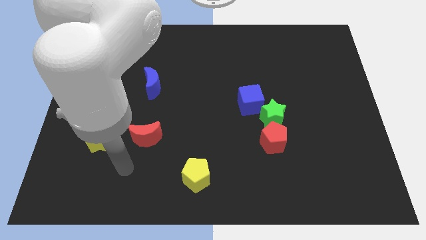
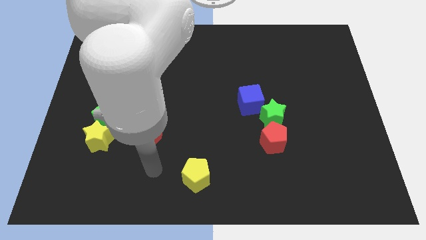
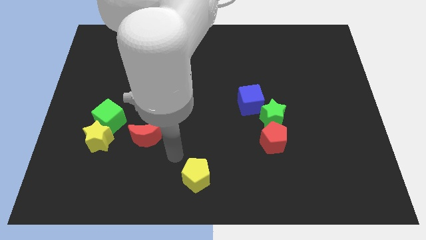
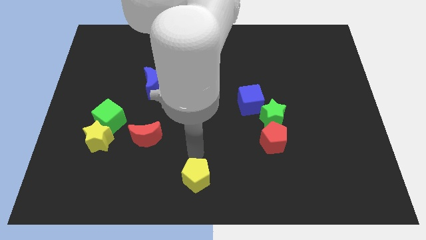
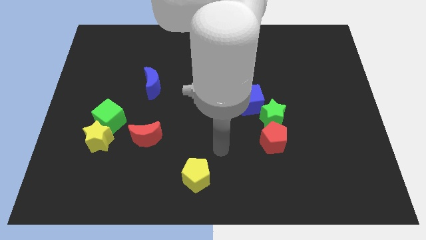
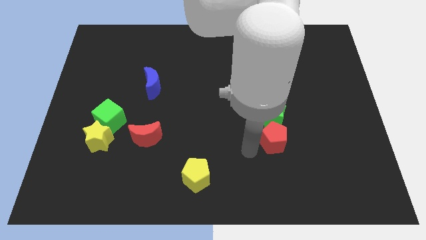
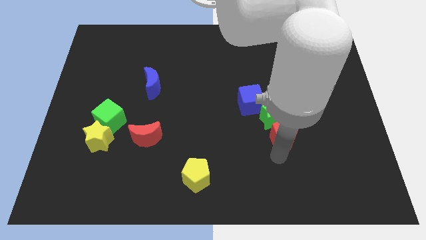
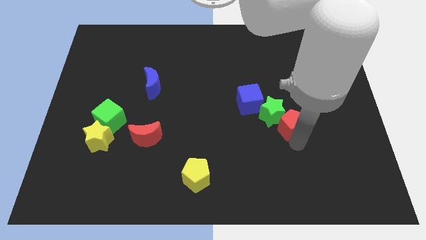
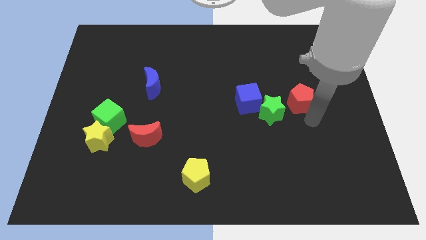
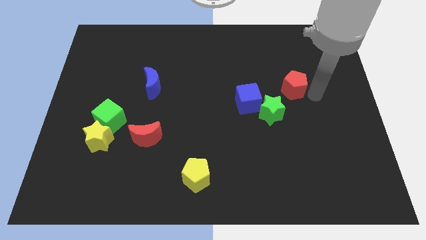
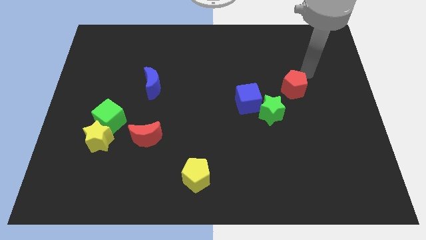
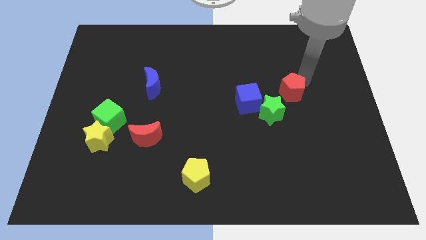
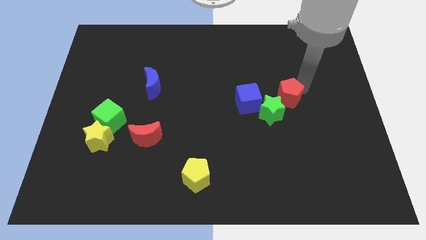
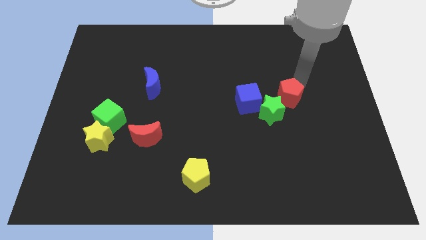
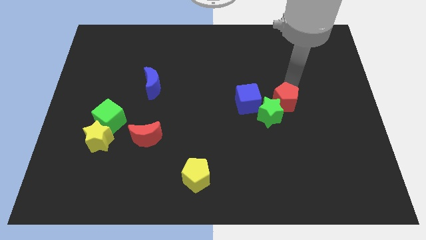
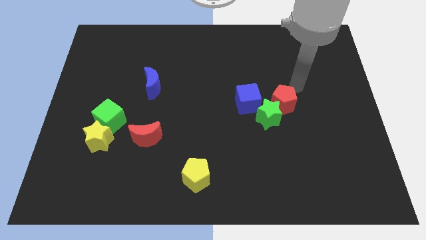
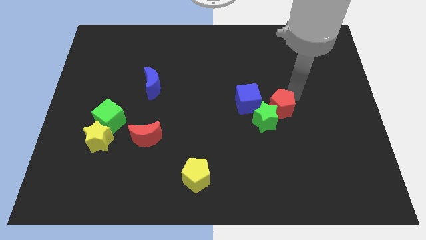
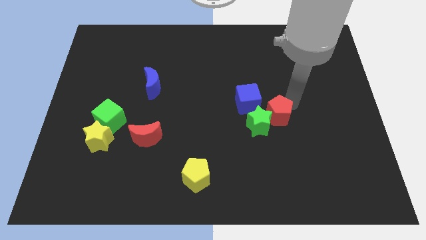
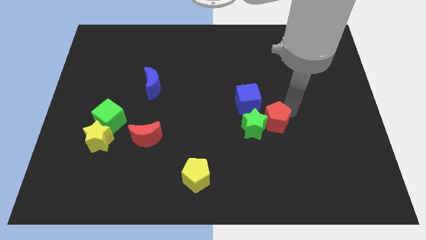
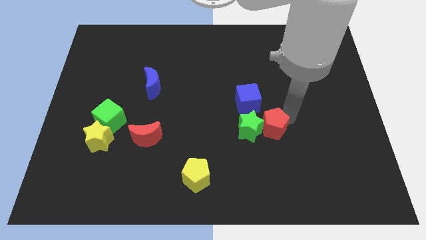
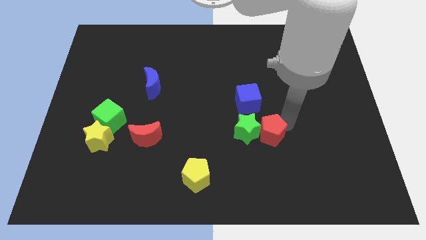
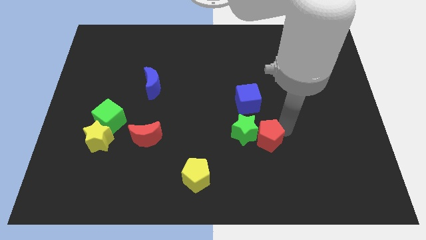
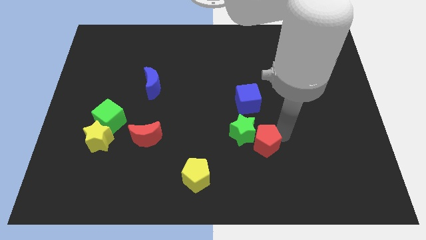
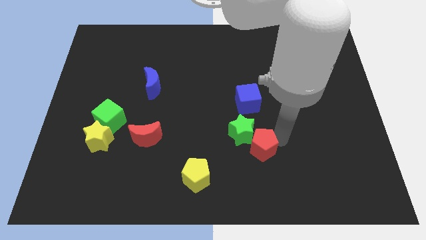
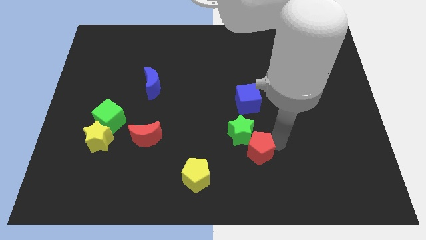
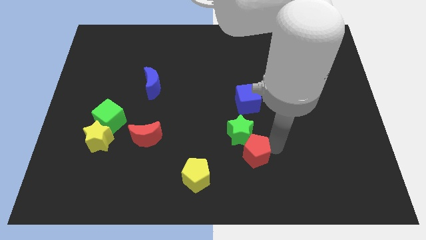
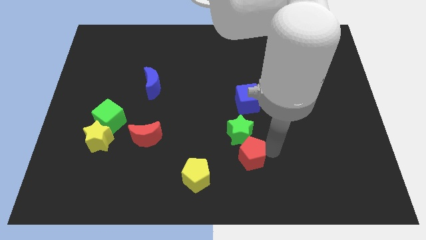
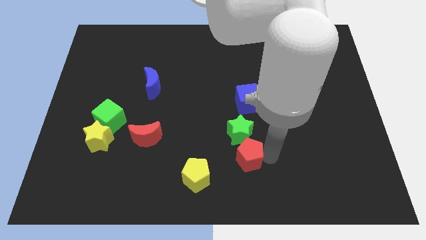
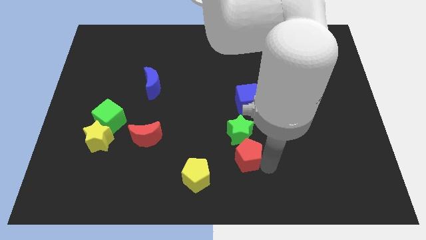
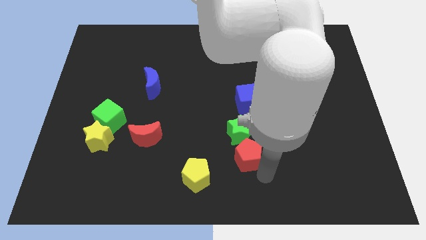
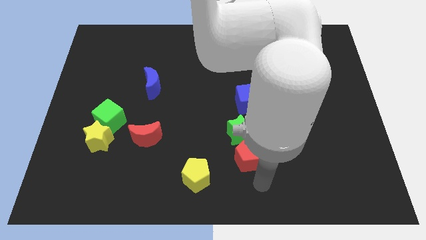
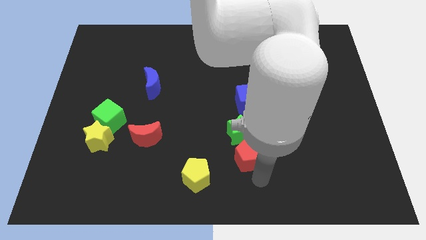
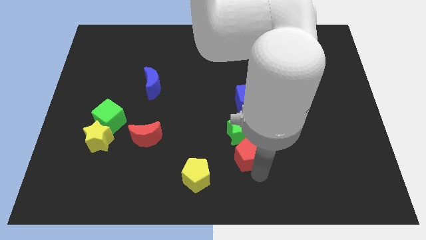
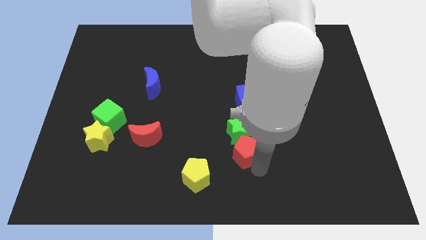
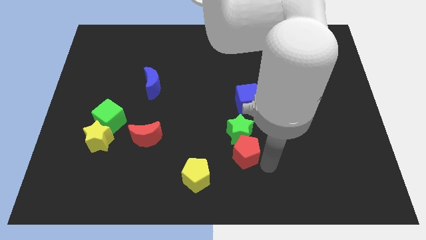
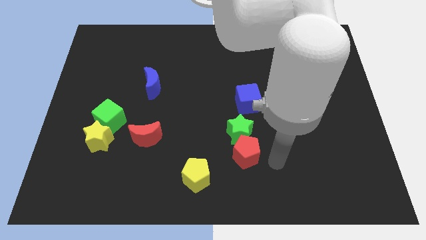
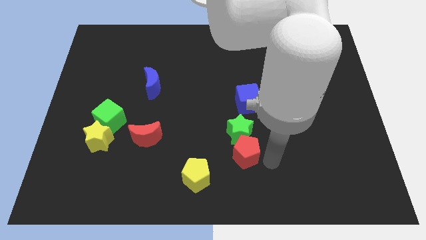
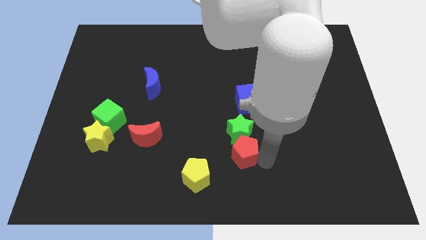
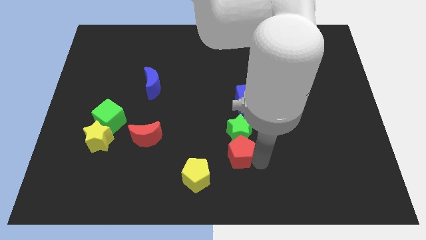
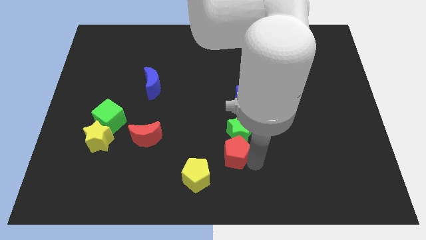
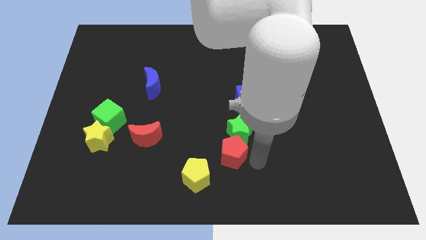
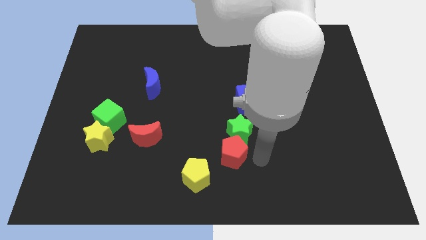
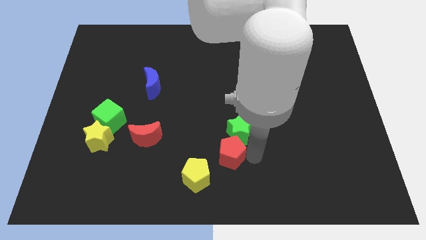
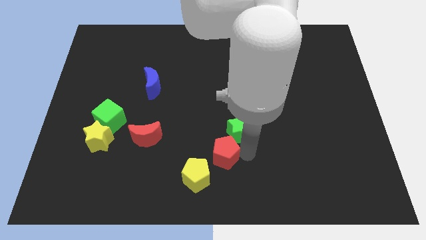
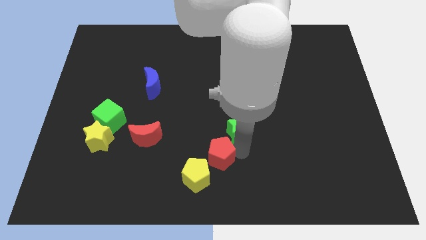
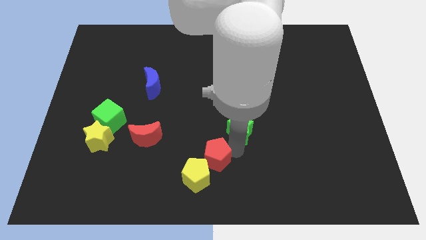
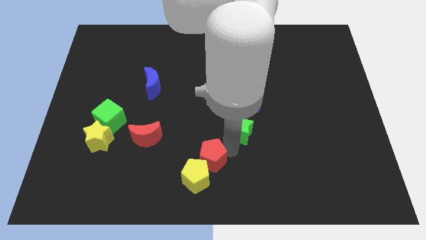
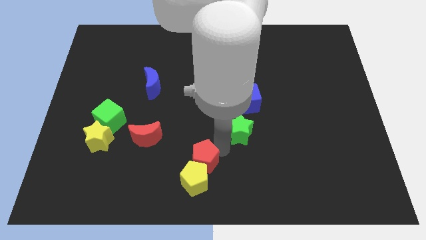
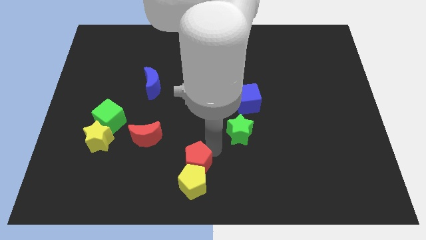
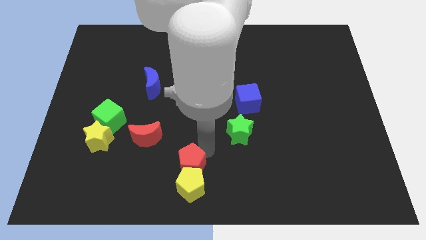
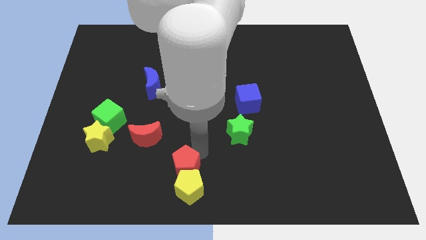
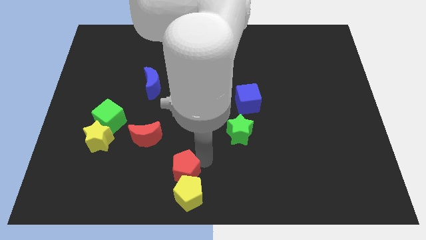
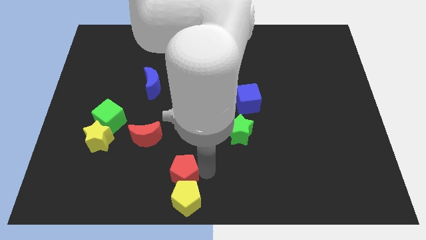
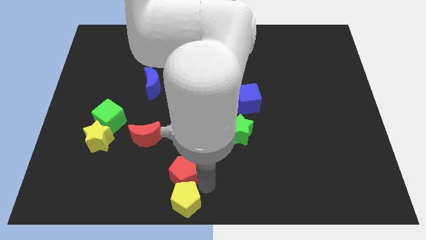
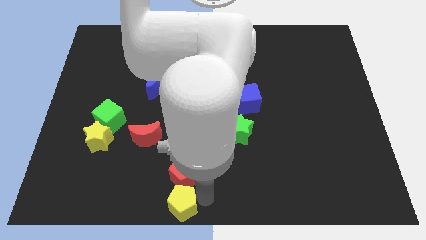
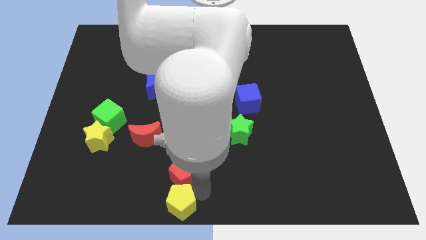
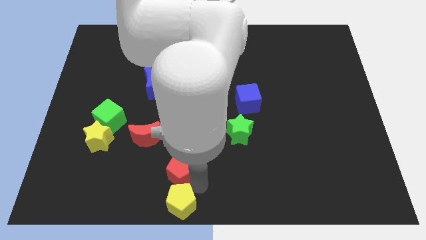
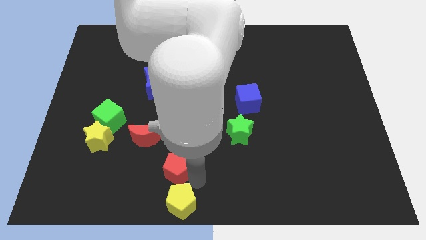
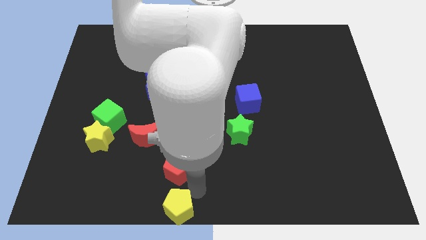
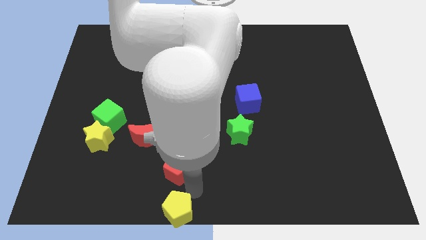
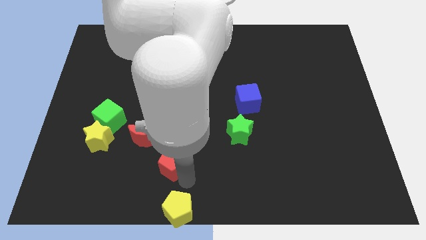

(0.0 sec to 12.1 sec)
move the red pentagon to the left

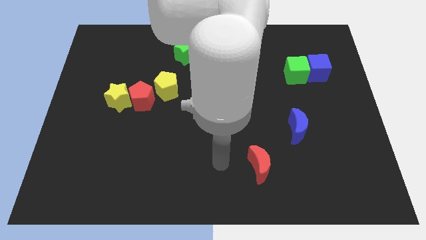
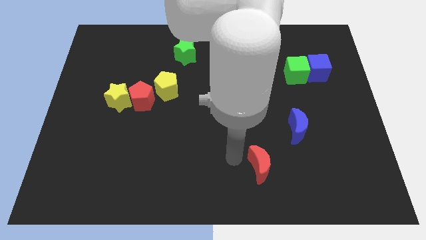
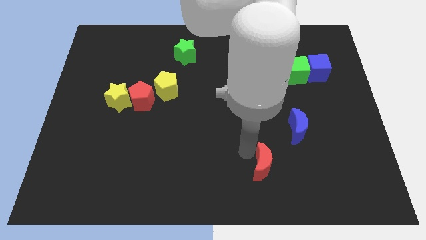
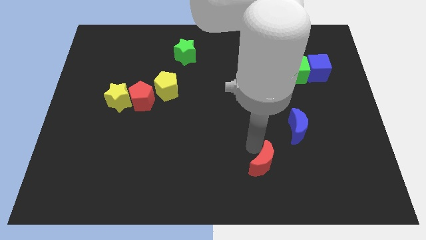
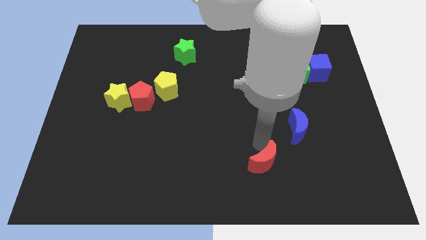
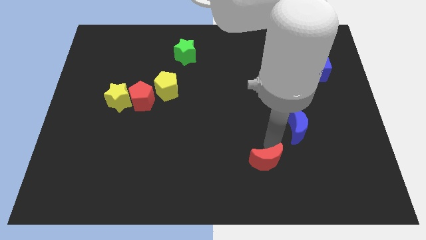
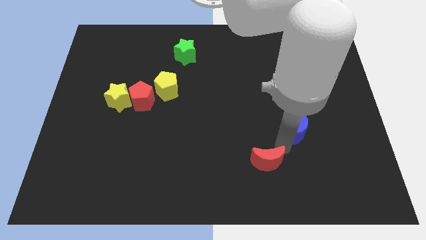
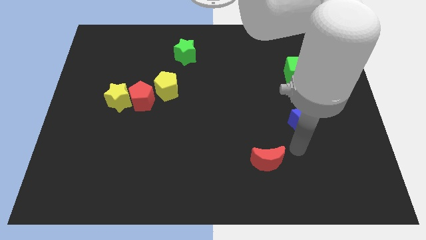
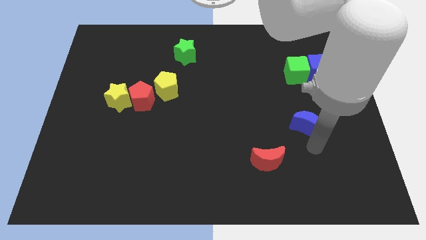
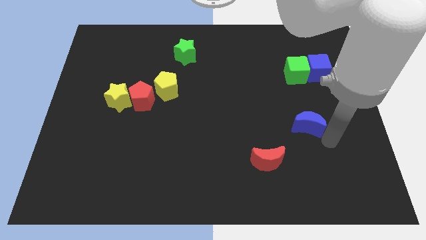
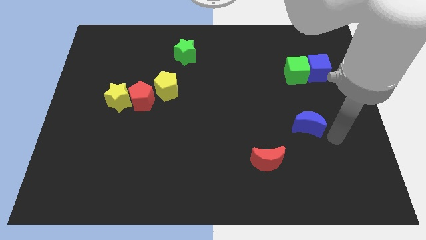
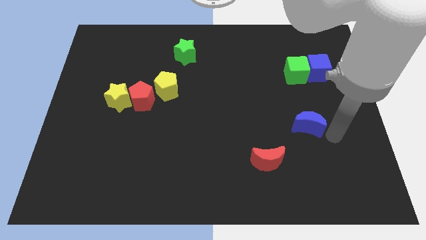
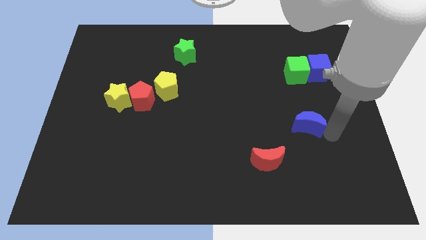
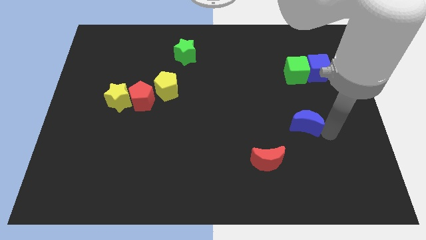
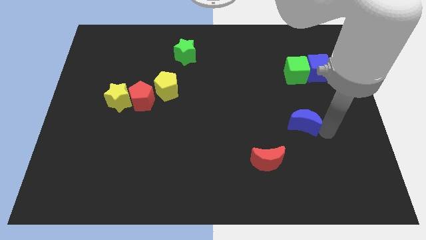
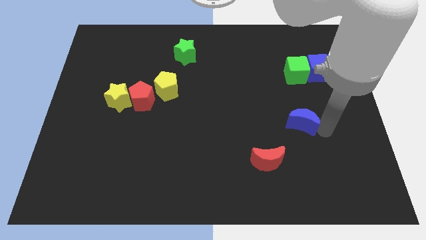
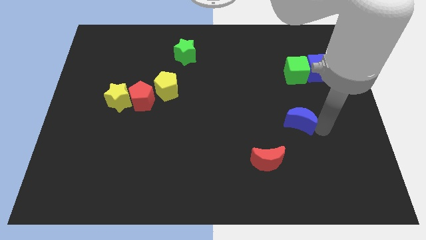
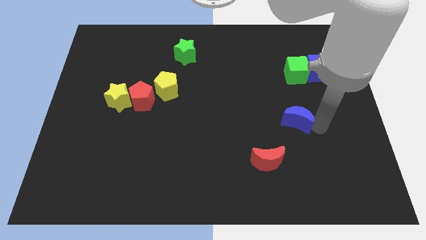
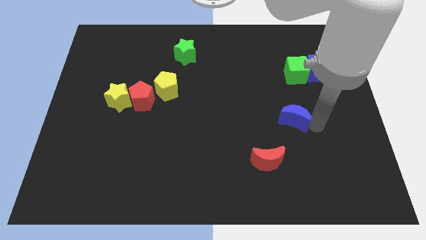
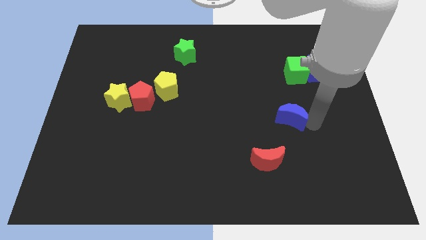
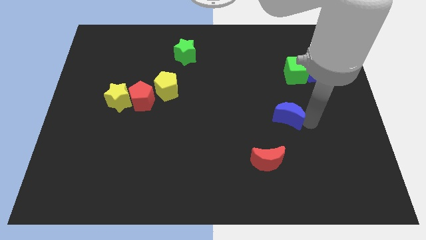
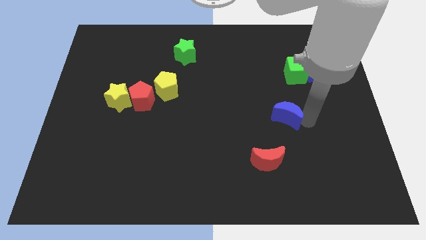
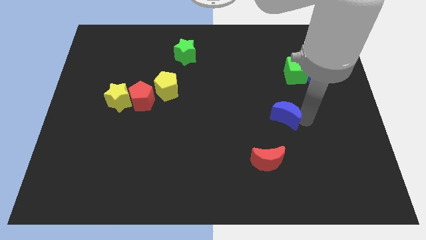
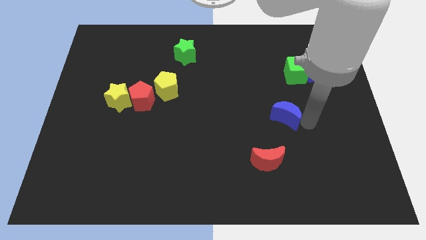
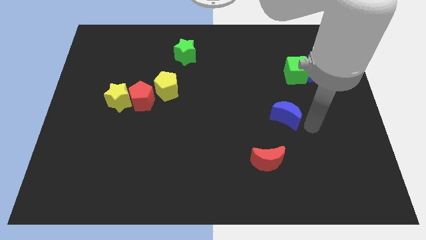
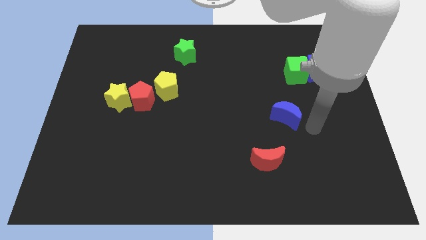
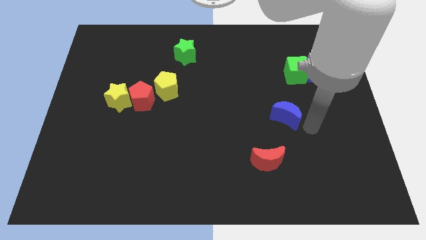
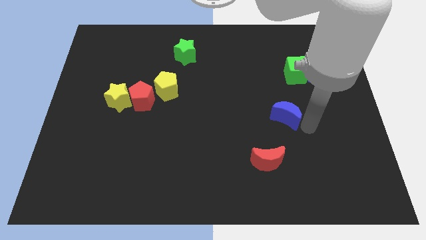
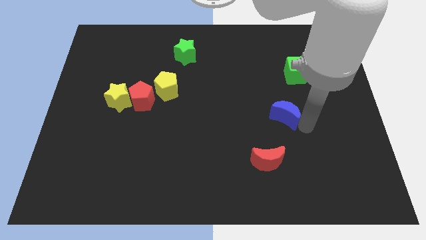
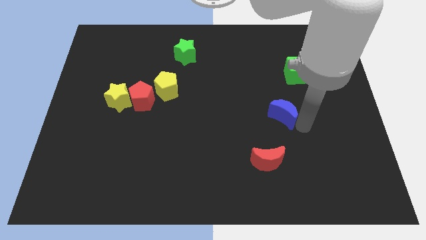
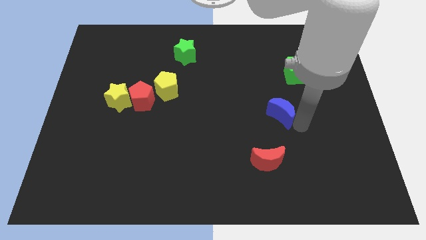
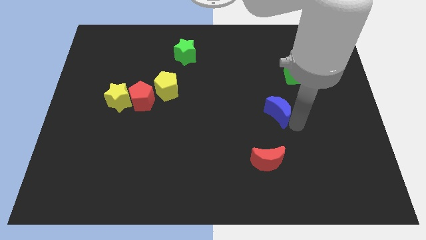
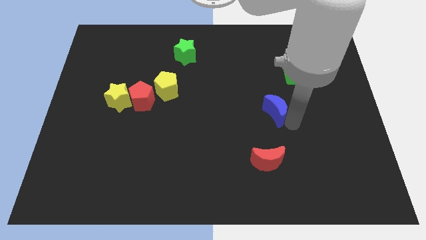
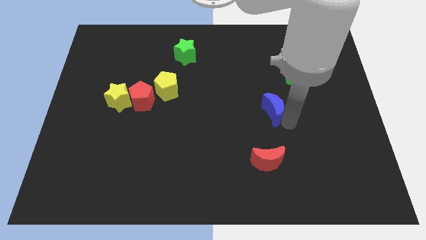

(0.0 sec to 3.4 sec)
slide the blue moon a little bit upwards and then left
